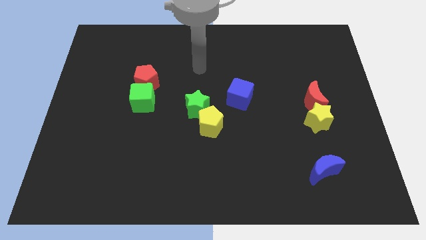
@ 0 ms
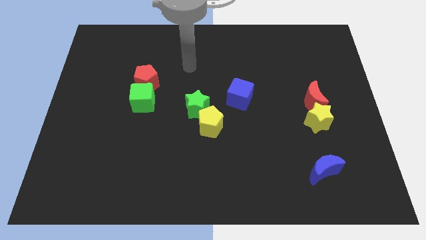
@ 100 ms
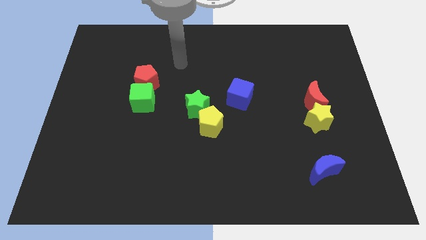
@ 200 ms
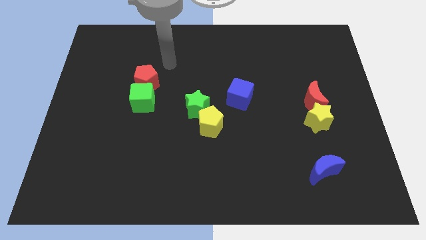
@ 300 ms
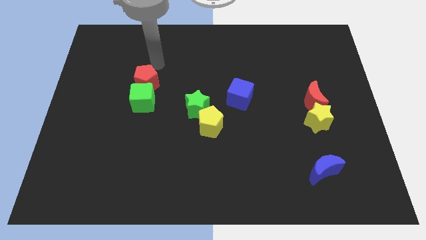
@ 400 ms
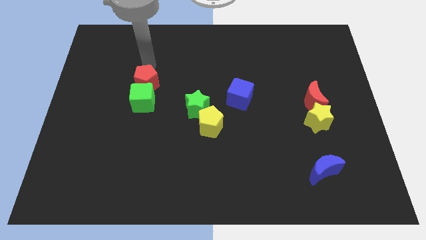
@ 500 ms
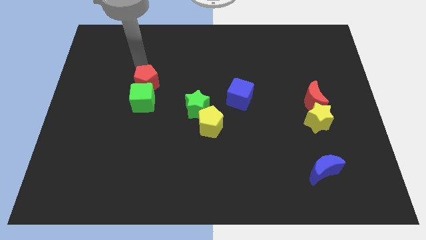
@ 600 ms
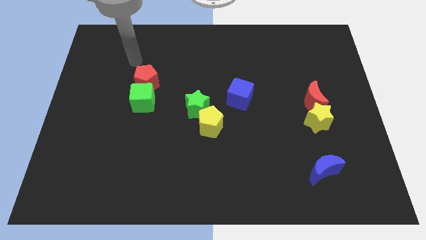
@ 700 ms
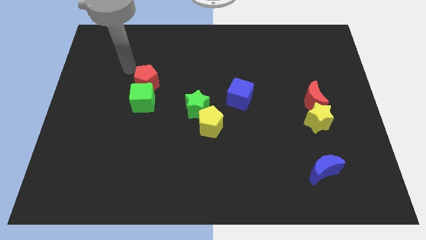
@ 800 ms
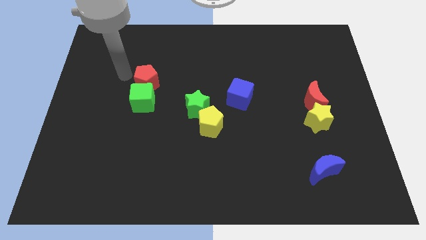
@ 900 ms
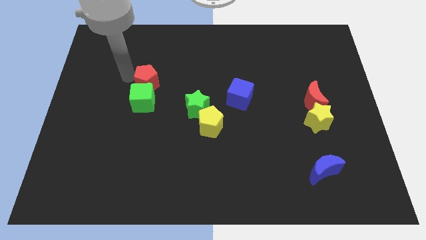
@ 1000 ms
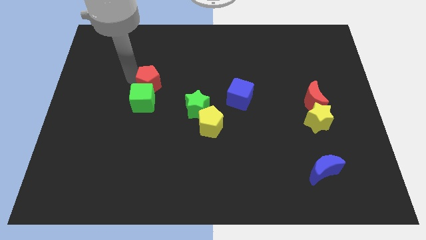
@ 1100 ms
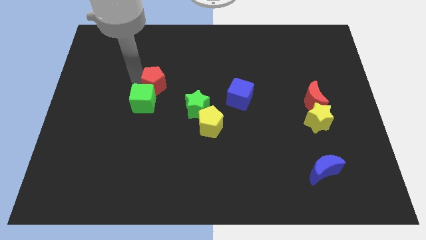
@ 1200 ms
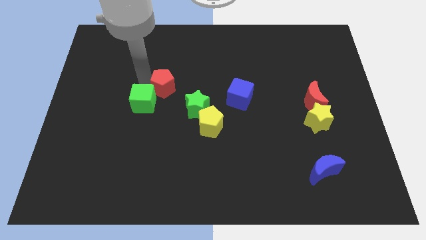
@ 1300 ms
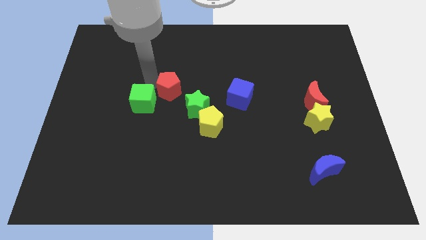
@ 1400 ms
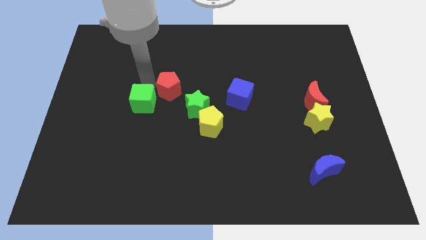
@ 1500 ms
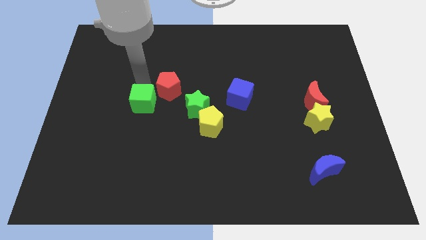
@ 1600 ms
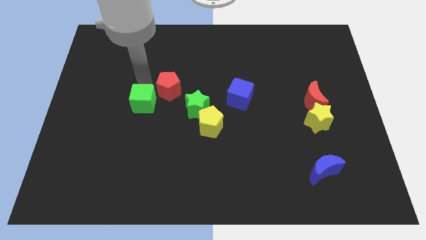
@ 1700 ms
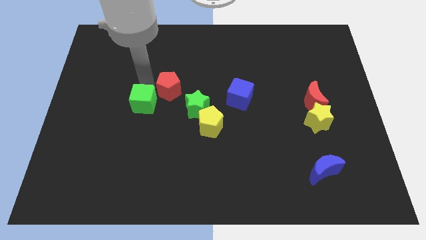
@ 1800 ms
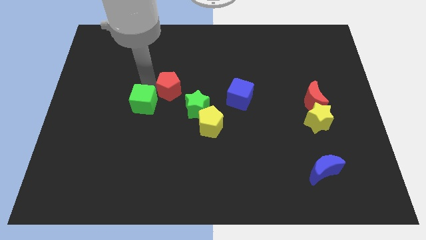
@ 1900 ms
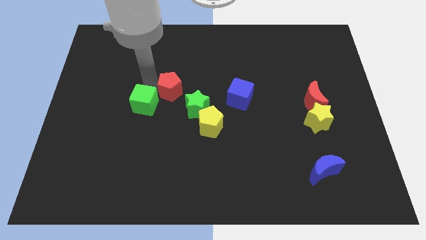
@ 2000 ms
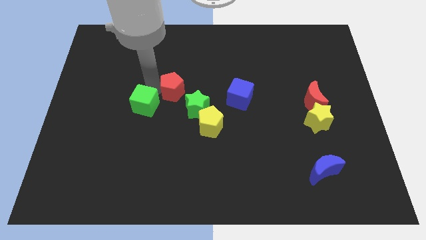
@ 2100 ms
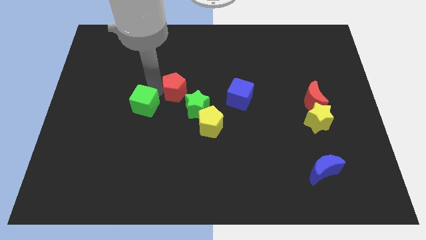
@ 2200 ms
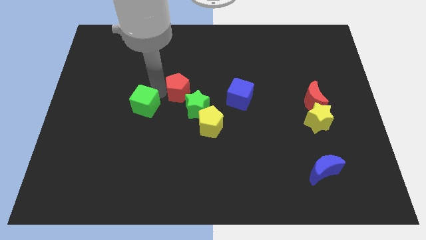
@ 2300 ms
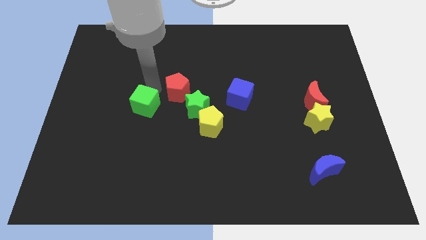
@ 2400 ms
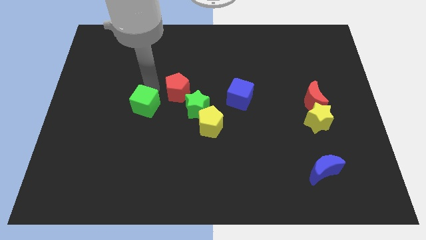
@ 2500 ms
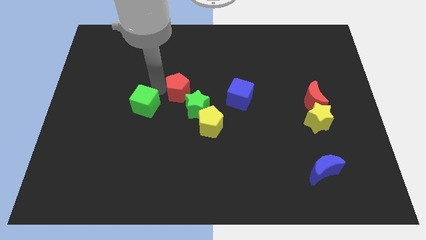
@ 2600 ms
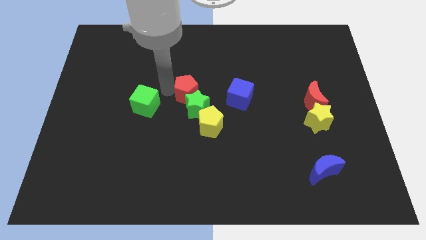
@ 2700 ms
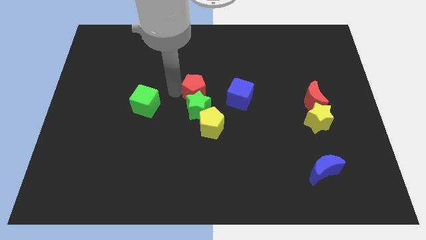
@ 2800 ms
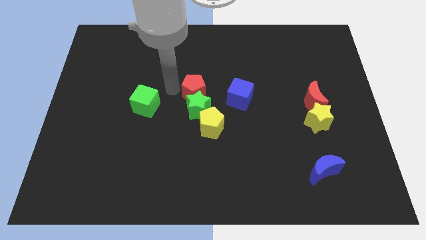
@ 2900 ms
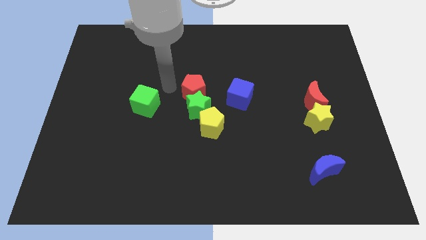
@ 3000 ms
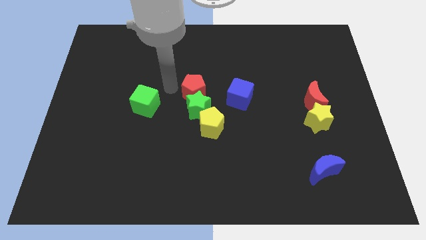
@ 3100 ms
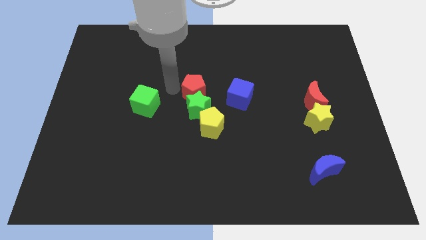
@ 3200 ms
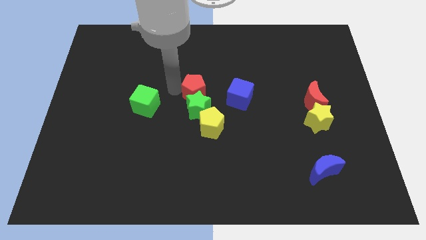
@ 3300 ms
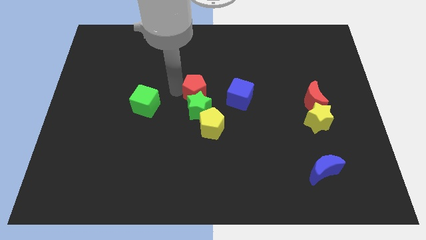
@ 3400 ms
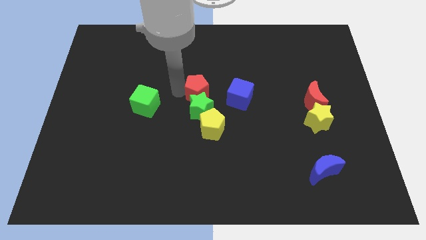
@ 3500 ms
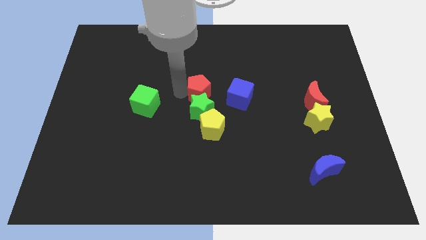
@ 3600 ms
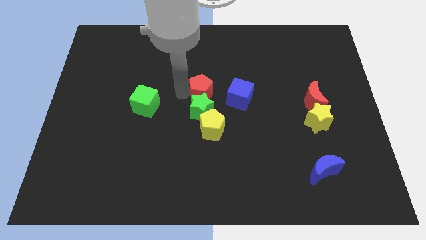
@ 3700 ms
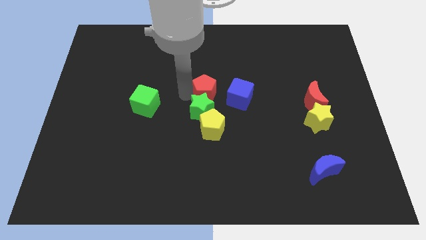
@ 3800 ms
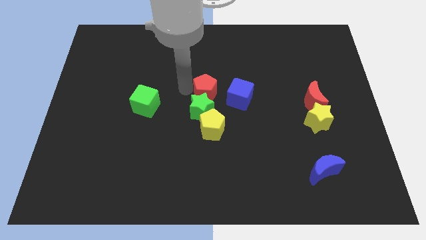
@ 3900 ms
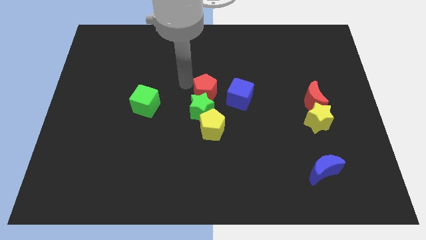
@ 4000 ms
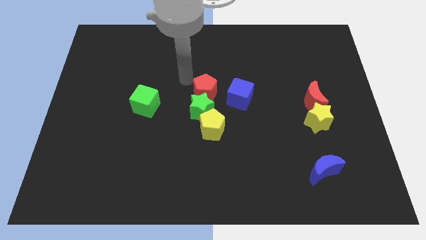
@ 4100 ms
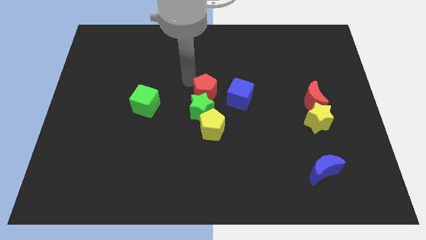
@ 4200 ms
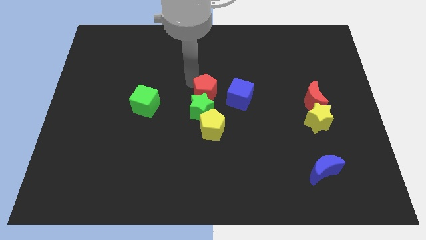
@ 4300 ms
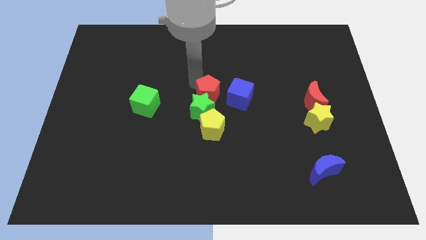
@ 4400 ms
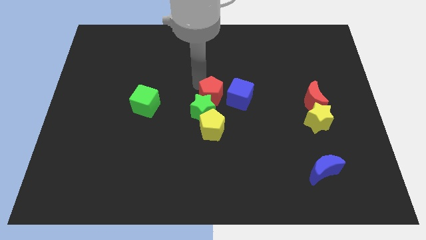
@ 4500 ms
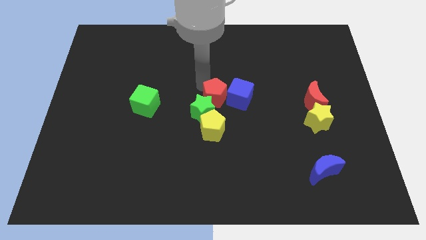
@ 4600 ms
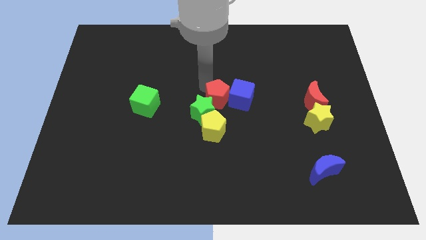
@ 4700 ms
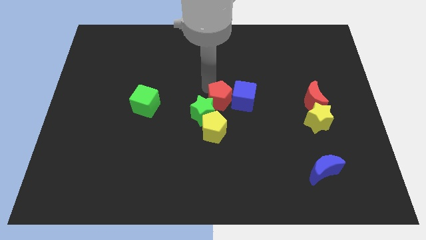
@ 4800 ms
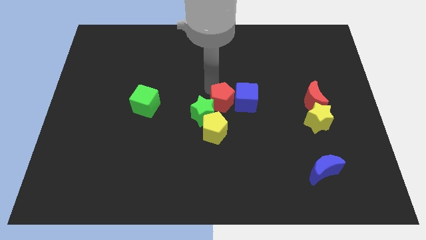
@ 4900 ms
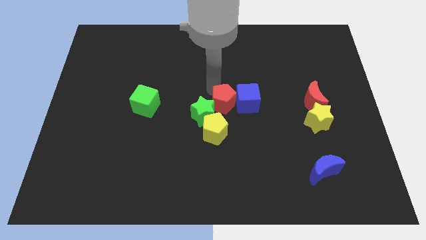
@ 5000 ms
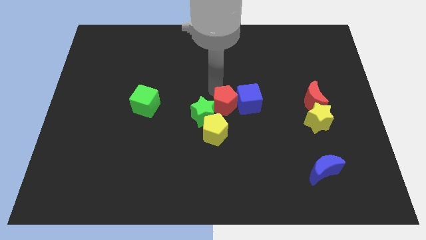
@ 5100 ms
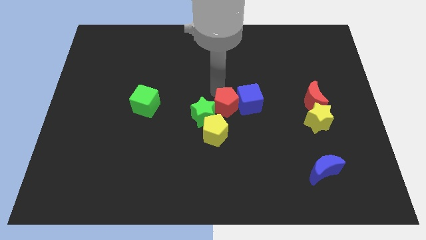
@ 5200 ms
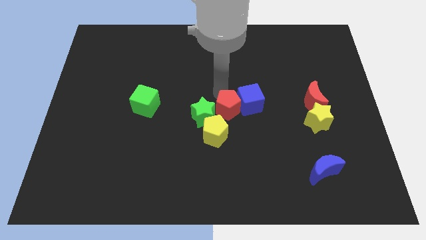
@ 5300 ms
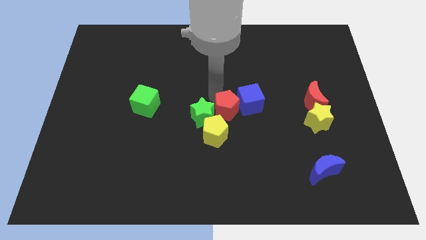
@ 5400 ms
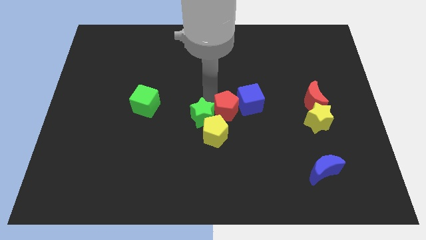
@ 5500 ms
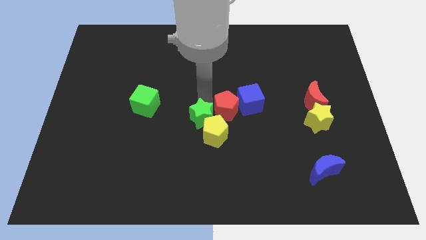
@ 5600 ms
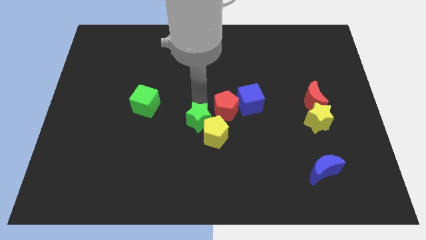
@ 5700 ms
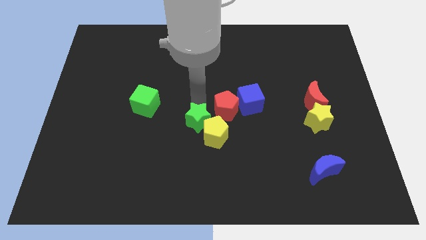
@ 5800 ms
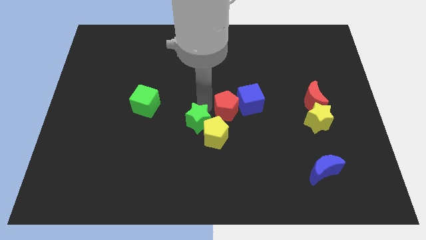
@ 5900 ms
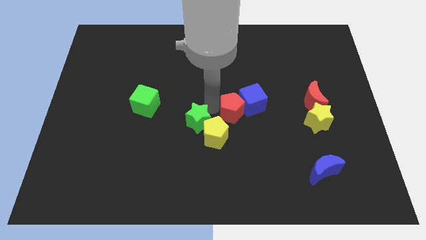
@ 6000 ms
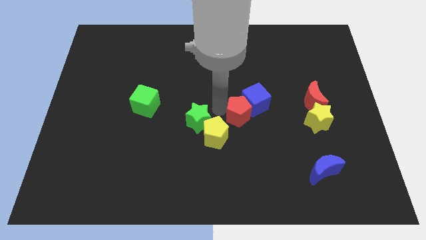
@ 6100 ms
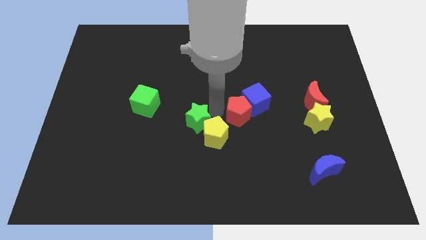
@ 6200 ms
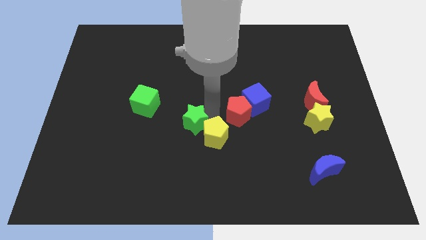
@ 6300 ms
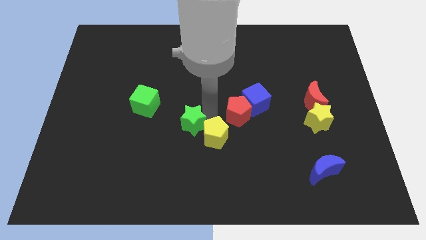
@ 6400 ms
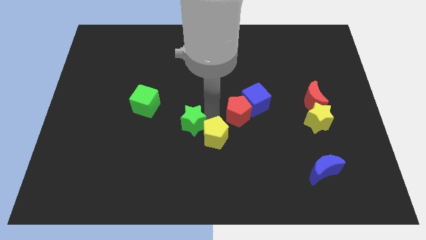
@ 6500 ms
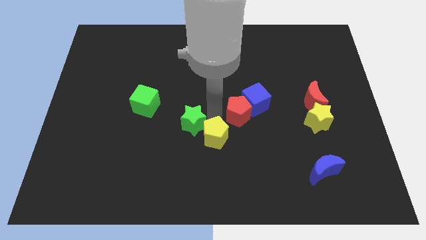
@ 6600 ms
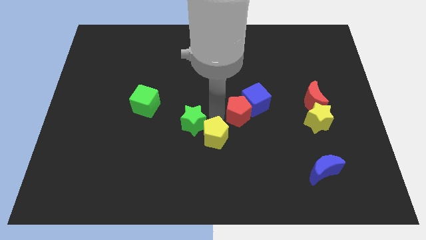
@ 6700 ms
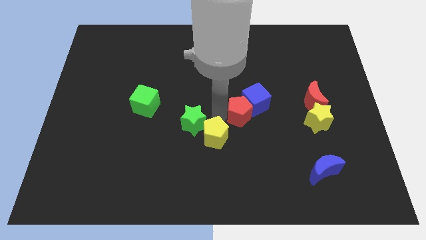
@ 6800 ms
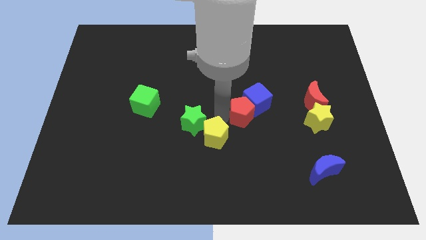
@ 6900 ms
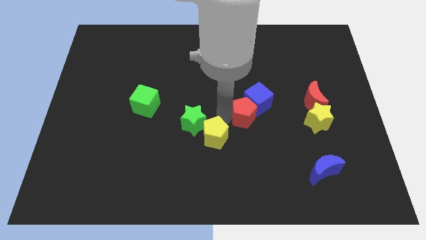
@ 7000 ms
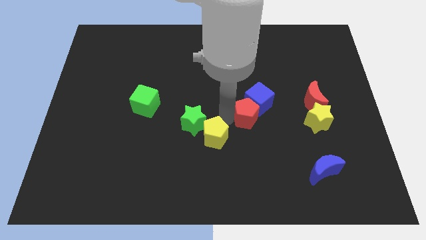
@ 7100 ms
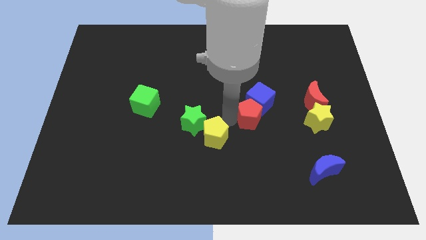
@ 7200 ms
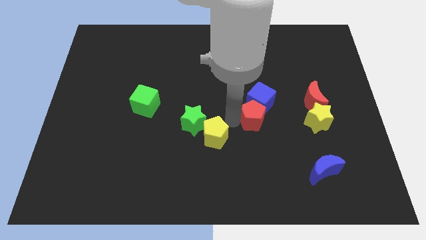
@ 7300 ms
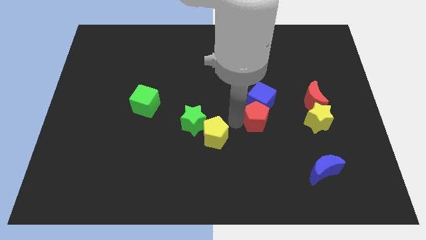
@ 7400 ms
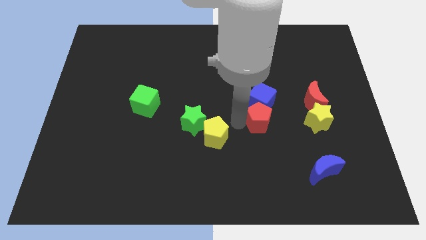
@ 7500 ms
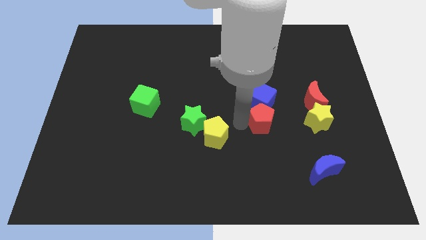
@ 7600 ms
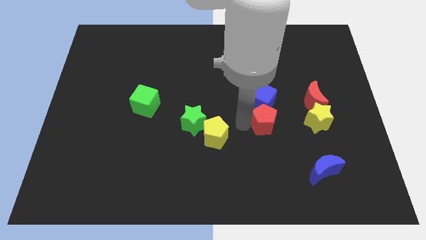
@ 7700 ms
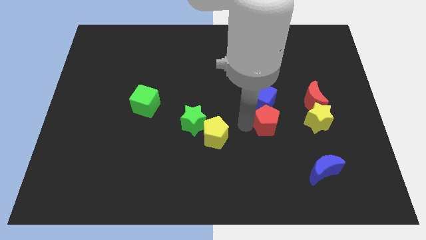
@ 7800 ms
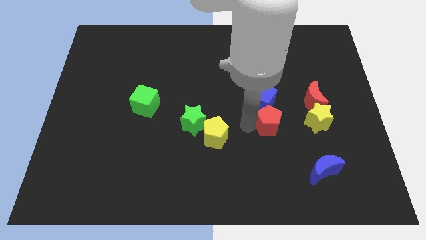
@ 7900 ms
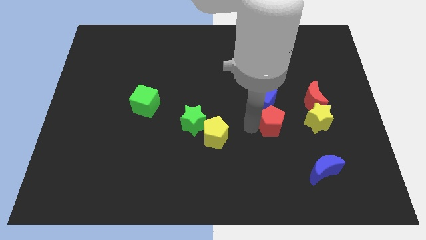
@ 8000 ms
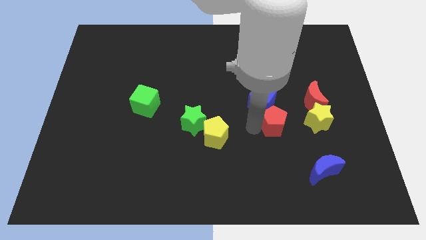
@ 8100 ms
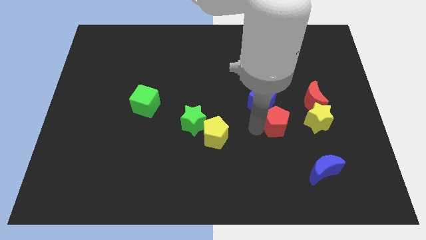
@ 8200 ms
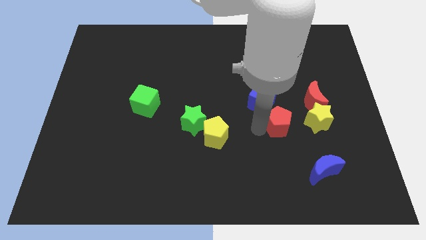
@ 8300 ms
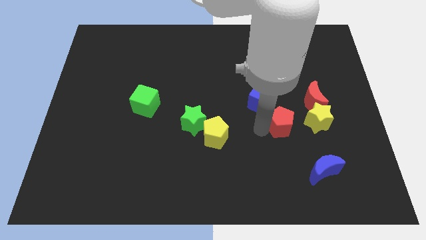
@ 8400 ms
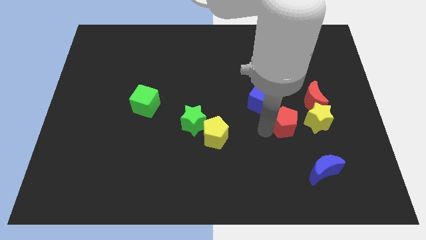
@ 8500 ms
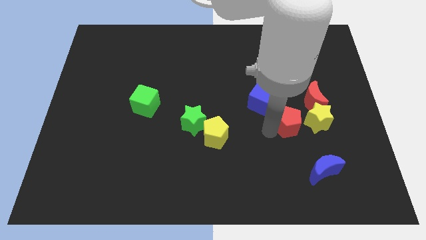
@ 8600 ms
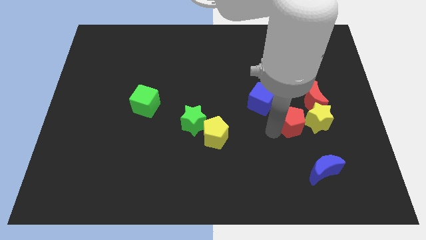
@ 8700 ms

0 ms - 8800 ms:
slide the red pentagon next to the yellow star
